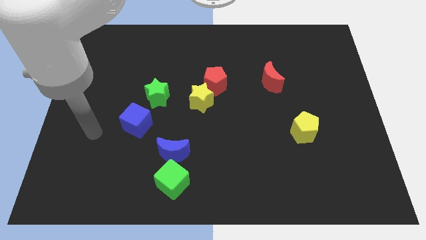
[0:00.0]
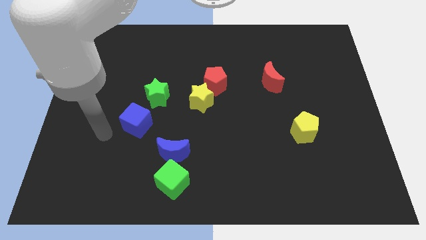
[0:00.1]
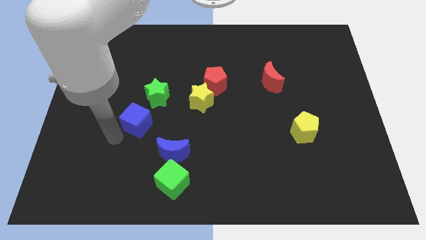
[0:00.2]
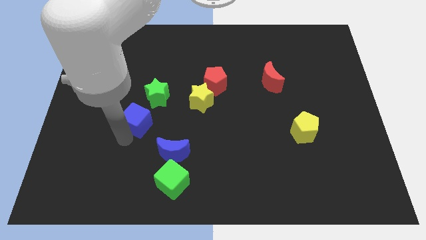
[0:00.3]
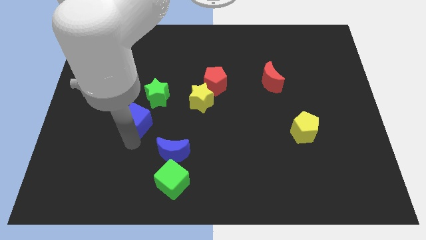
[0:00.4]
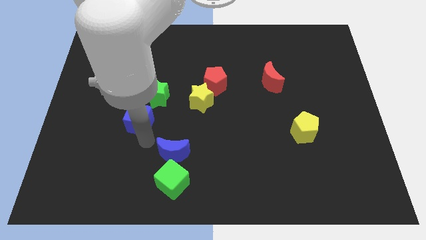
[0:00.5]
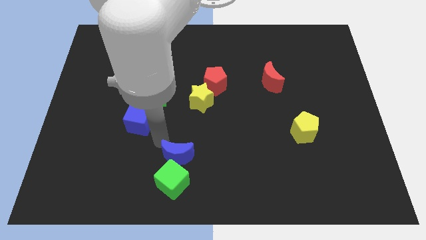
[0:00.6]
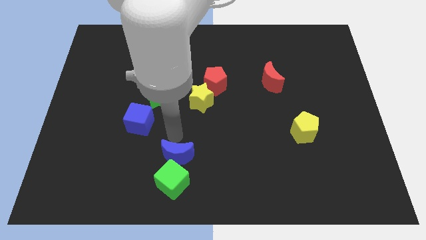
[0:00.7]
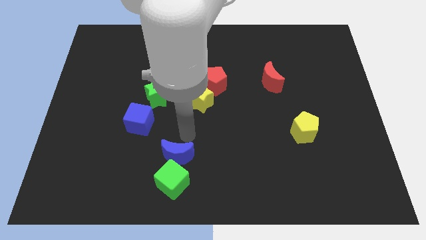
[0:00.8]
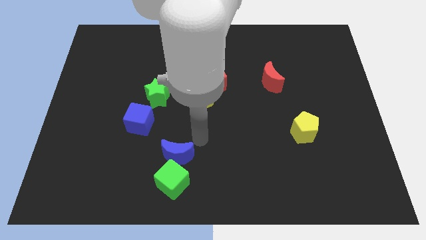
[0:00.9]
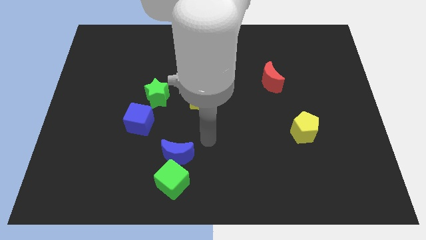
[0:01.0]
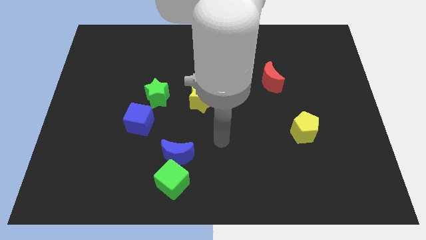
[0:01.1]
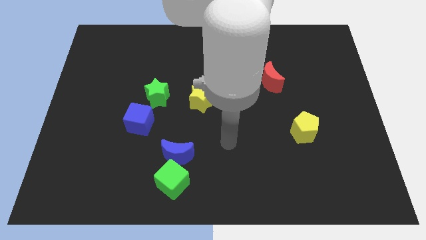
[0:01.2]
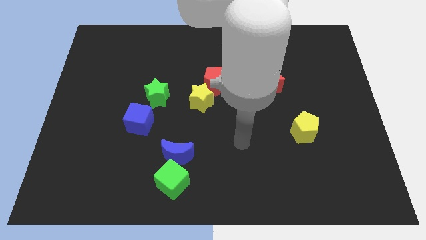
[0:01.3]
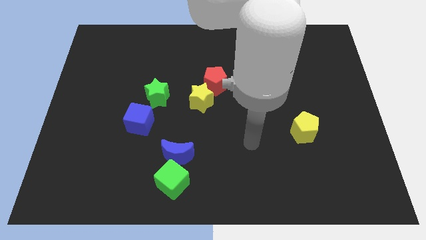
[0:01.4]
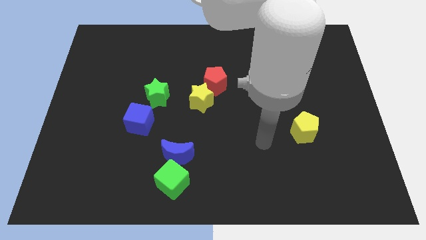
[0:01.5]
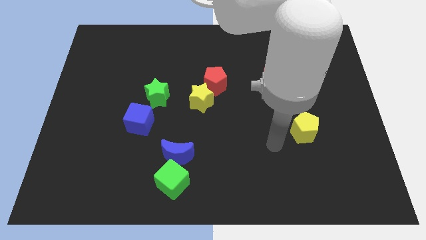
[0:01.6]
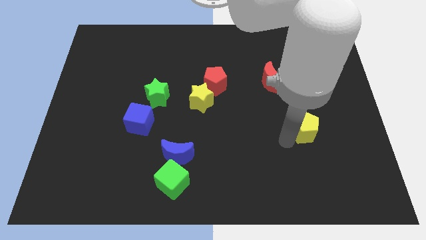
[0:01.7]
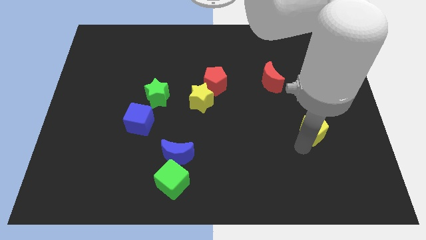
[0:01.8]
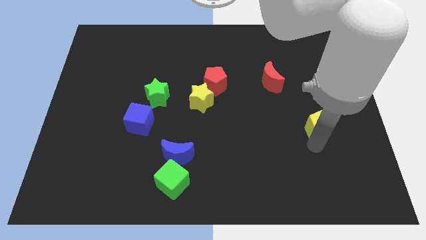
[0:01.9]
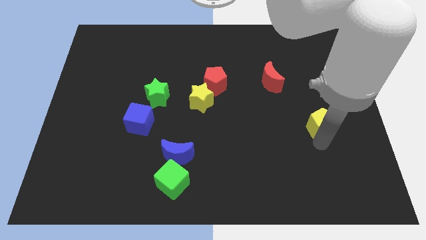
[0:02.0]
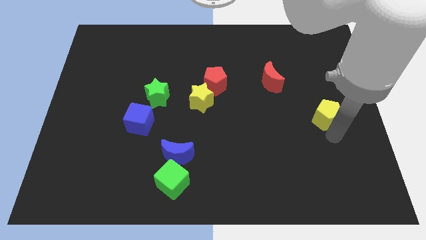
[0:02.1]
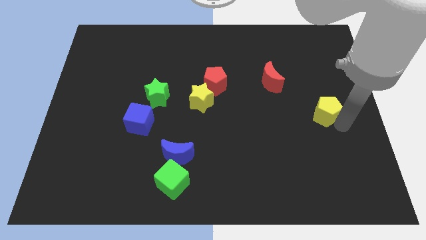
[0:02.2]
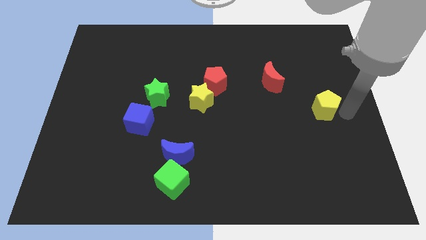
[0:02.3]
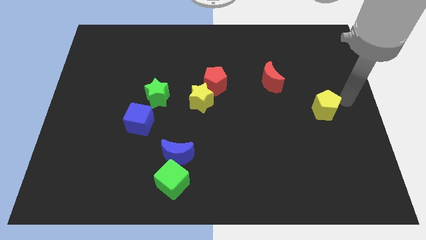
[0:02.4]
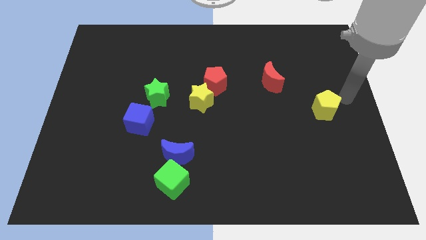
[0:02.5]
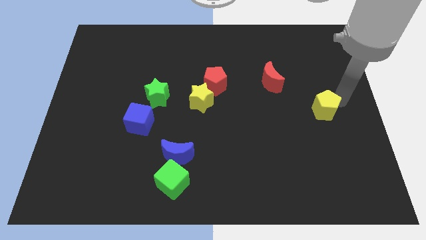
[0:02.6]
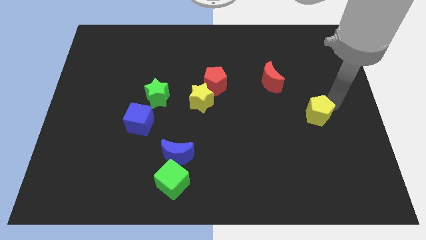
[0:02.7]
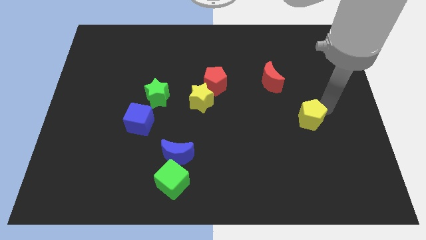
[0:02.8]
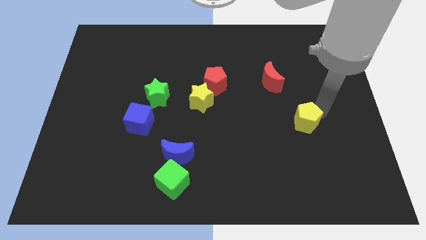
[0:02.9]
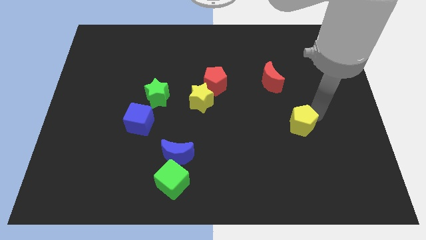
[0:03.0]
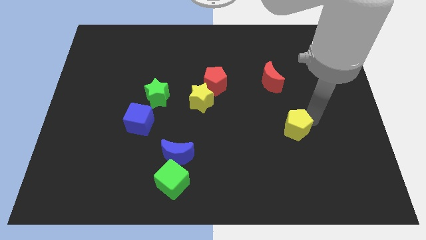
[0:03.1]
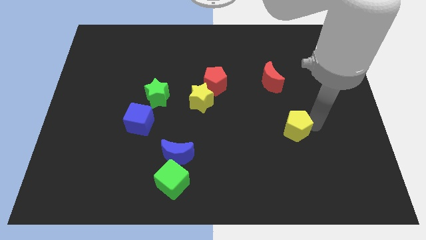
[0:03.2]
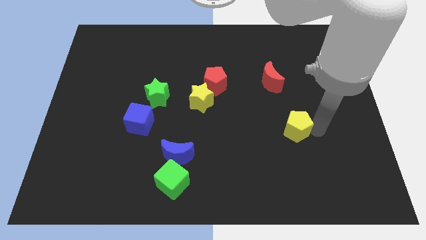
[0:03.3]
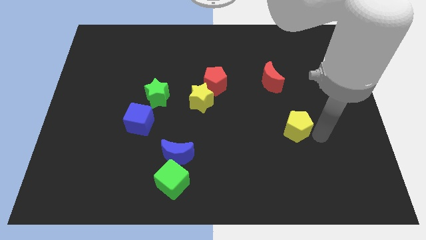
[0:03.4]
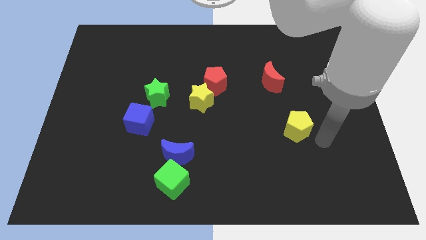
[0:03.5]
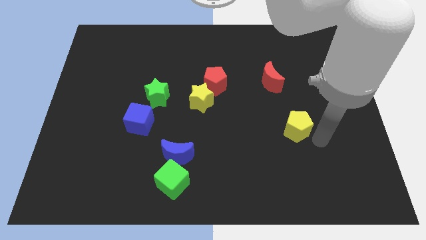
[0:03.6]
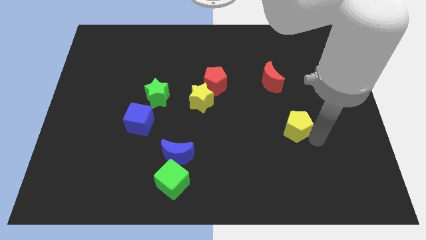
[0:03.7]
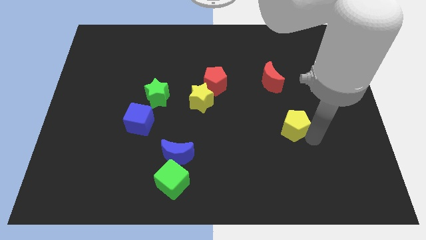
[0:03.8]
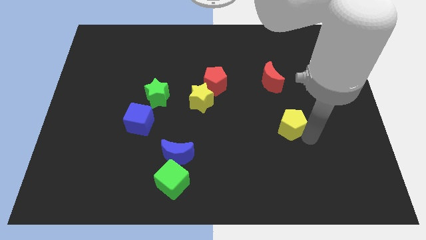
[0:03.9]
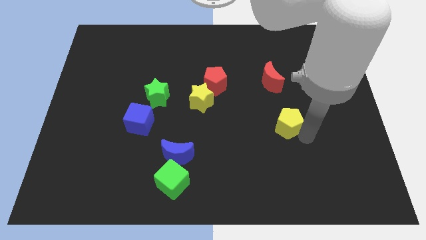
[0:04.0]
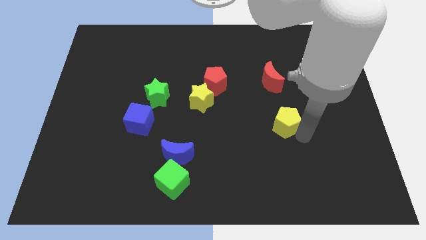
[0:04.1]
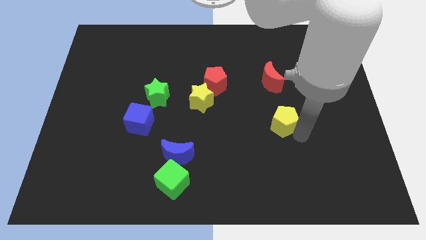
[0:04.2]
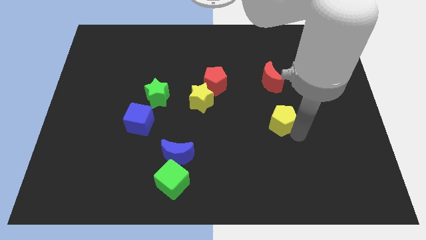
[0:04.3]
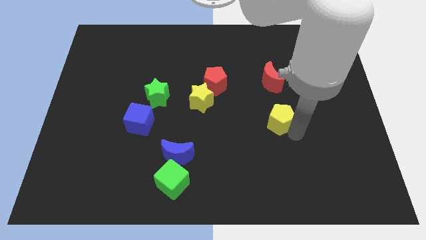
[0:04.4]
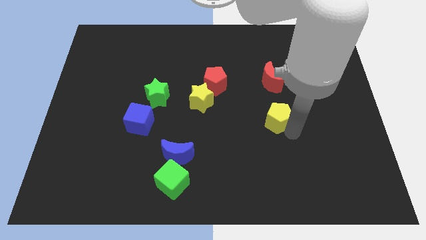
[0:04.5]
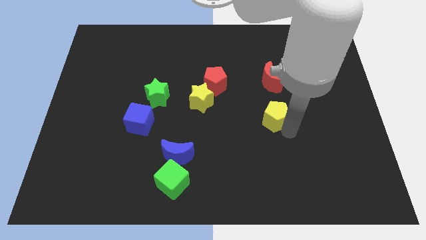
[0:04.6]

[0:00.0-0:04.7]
move the yellow pentagon diagonally up and left somewhat

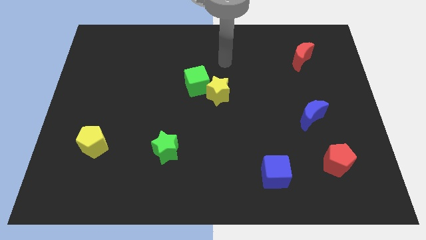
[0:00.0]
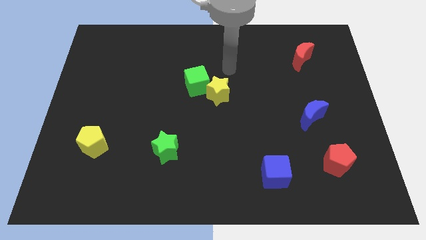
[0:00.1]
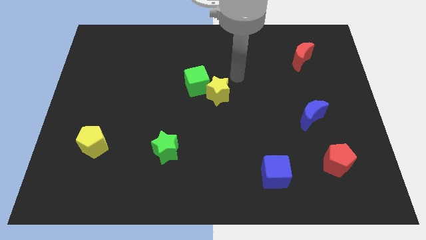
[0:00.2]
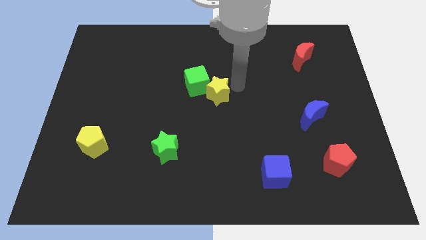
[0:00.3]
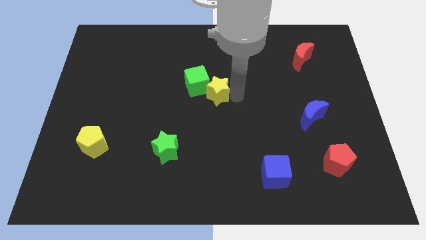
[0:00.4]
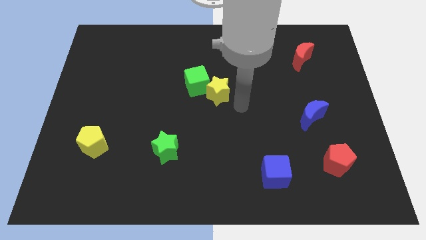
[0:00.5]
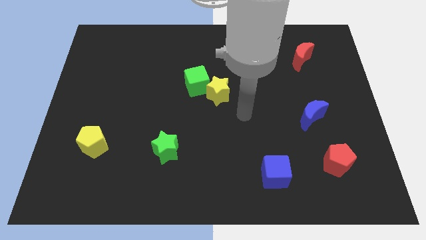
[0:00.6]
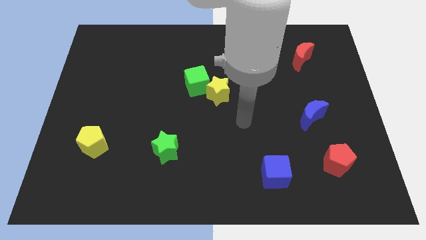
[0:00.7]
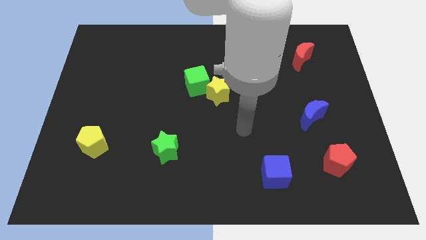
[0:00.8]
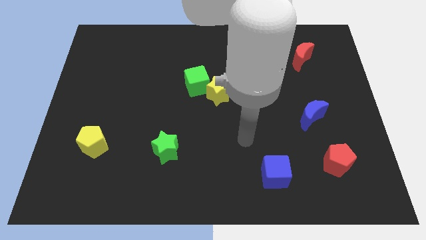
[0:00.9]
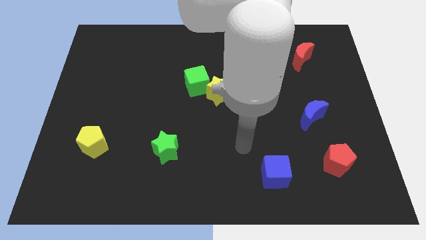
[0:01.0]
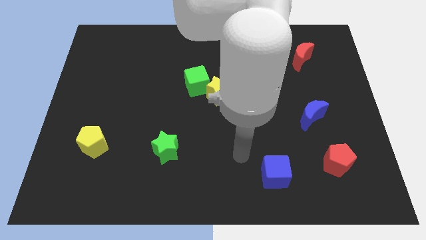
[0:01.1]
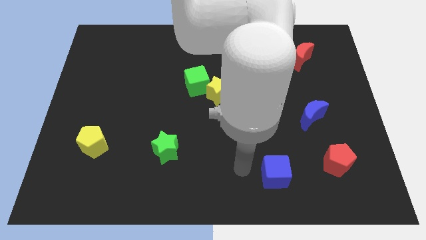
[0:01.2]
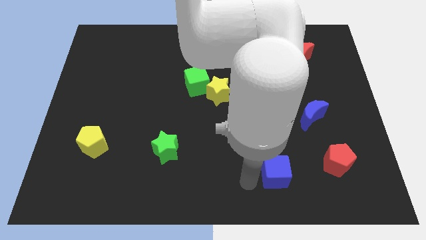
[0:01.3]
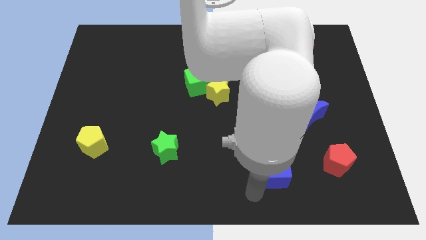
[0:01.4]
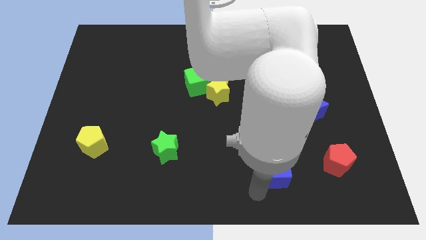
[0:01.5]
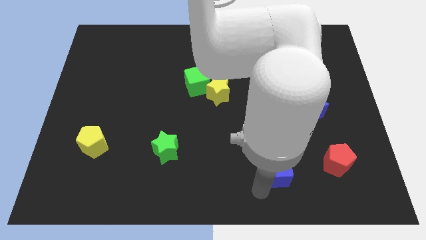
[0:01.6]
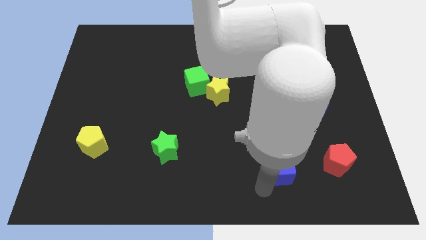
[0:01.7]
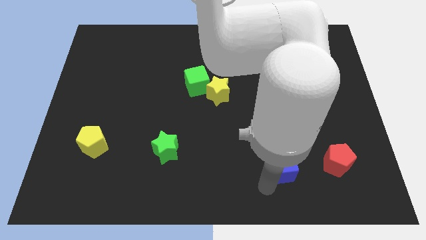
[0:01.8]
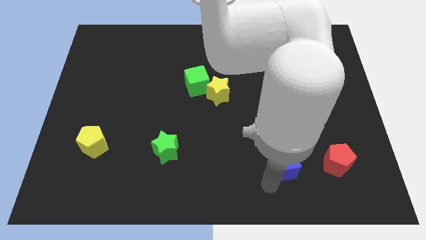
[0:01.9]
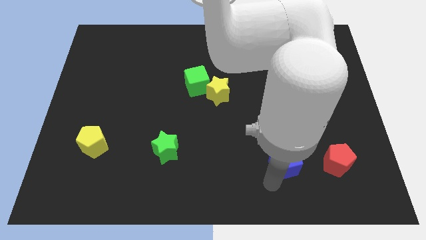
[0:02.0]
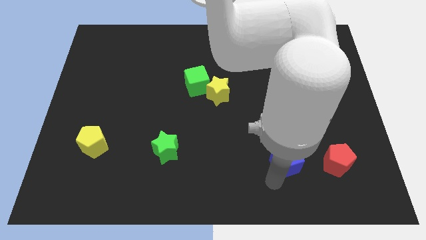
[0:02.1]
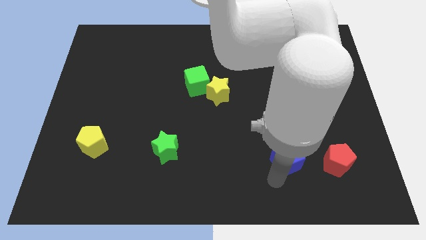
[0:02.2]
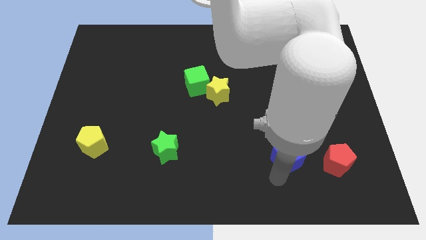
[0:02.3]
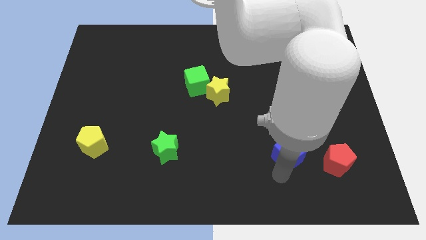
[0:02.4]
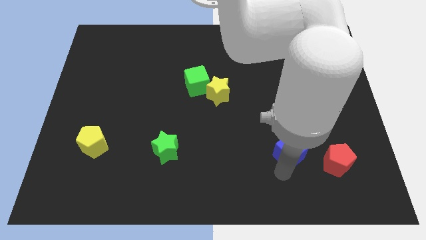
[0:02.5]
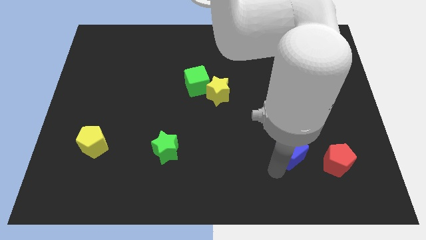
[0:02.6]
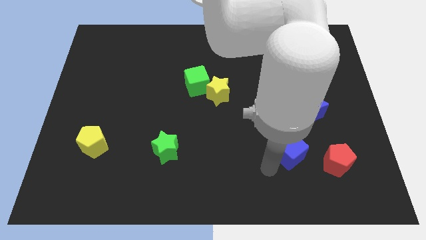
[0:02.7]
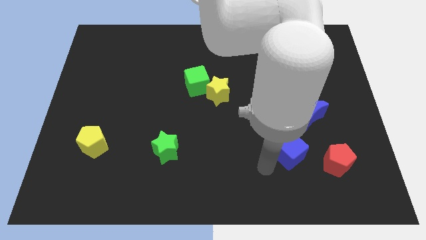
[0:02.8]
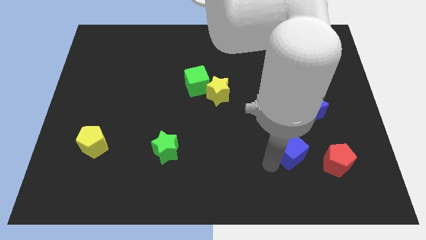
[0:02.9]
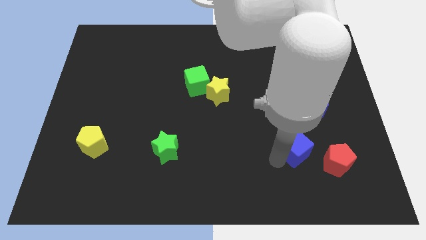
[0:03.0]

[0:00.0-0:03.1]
move the blue cube somewhat upwards and then to the right
